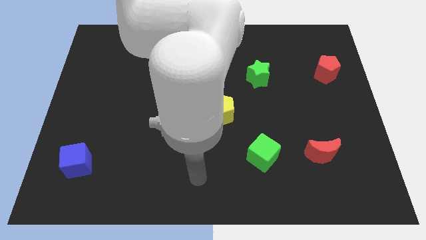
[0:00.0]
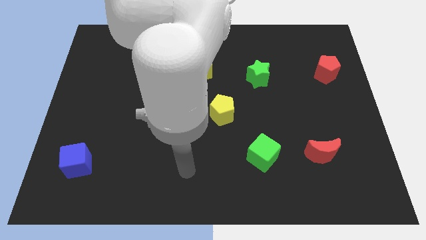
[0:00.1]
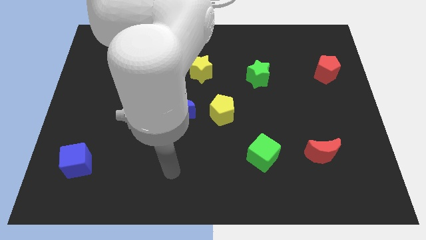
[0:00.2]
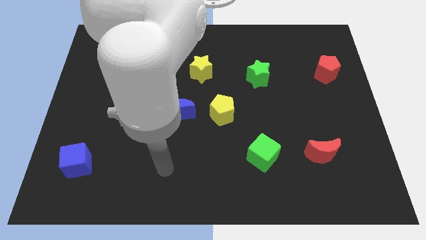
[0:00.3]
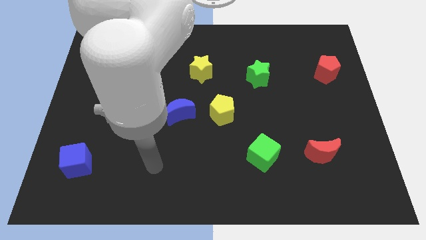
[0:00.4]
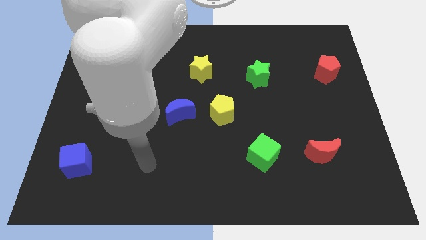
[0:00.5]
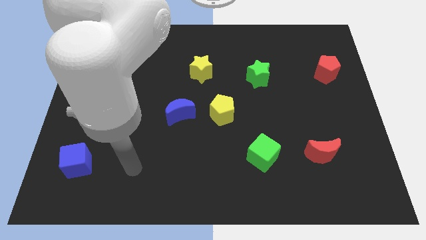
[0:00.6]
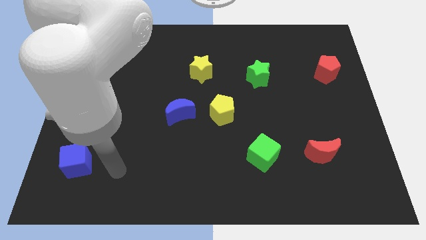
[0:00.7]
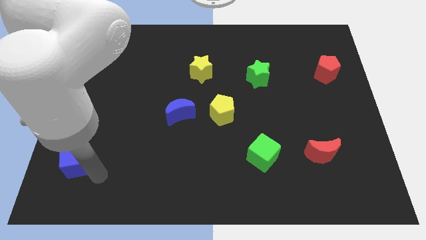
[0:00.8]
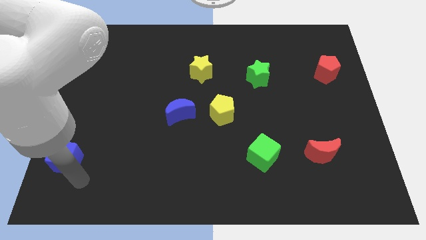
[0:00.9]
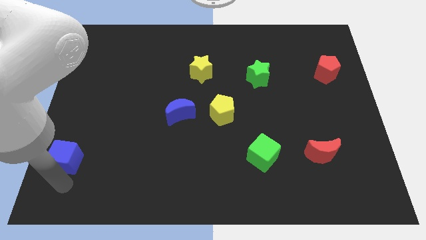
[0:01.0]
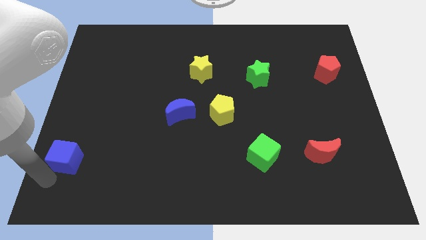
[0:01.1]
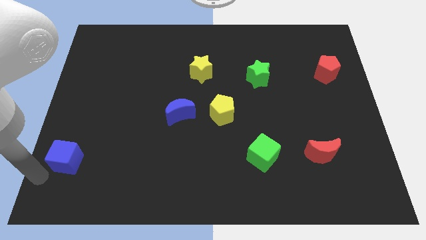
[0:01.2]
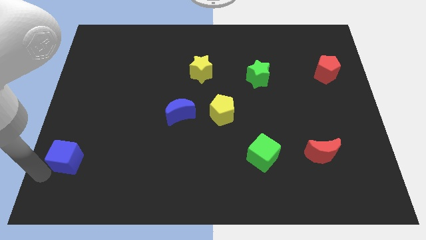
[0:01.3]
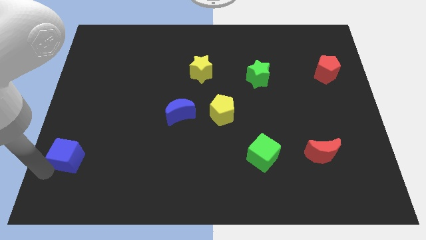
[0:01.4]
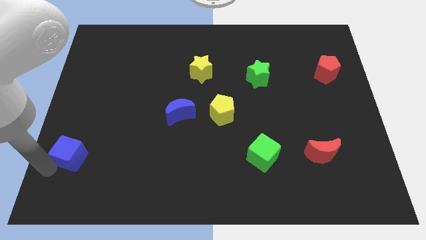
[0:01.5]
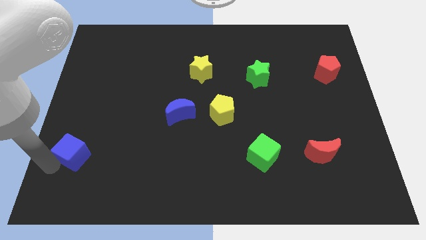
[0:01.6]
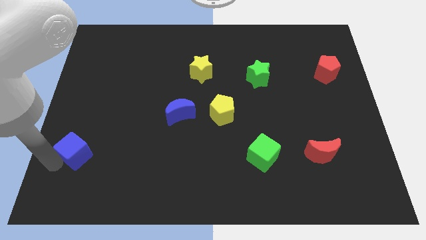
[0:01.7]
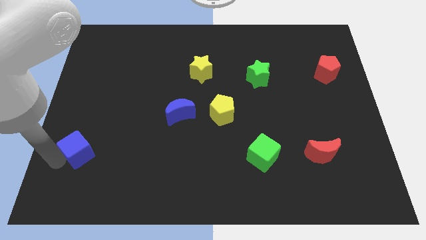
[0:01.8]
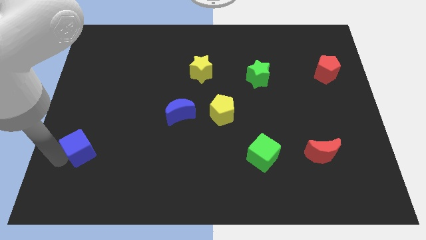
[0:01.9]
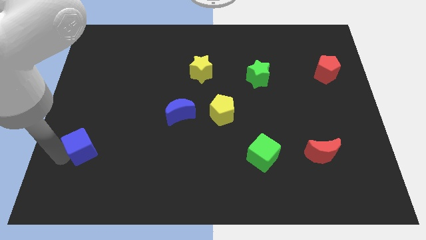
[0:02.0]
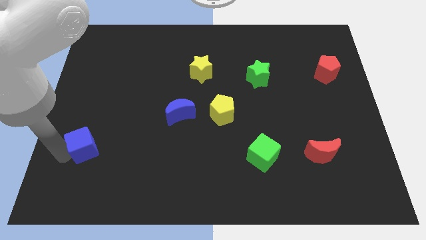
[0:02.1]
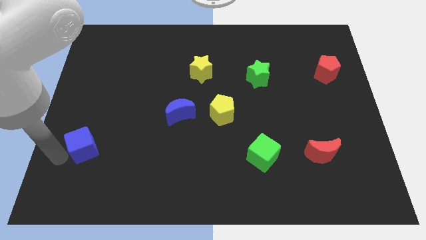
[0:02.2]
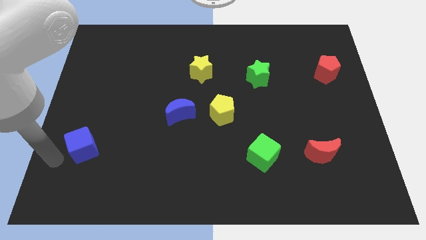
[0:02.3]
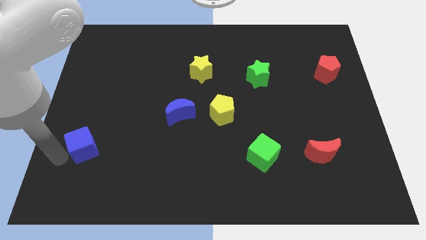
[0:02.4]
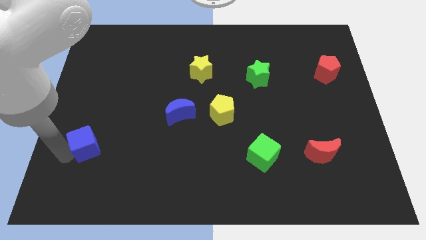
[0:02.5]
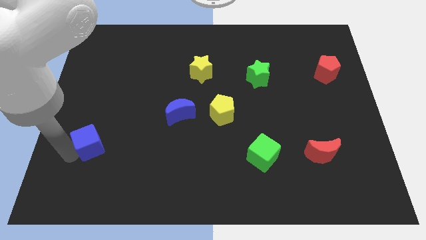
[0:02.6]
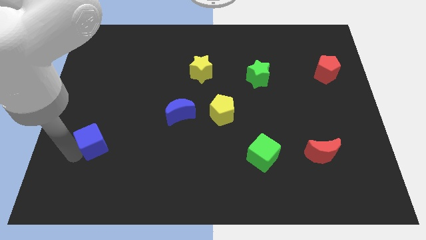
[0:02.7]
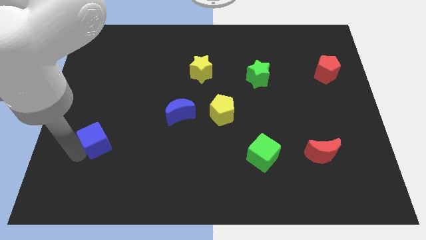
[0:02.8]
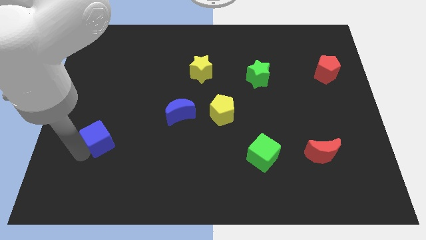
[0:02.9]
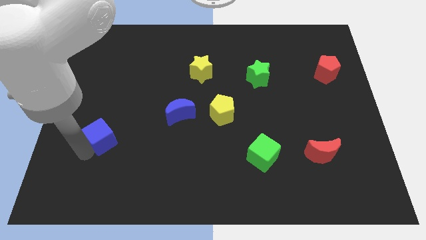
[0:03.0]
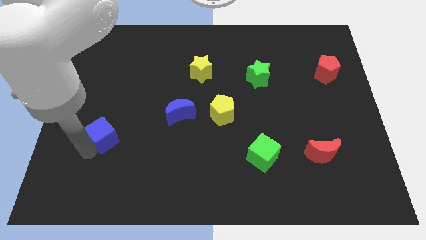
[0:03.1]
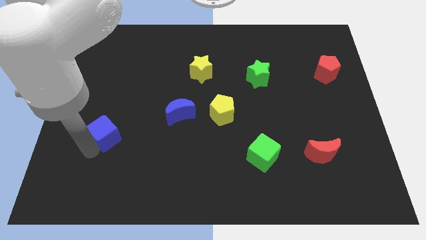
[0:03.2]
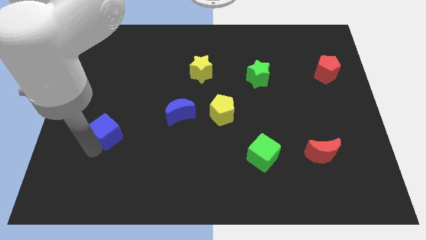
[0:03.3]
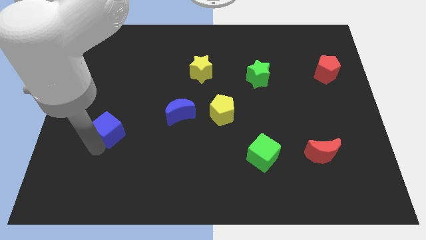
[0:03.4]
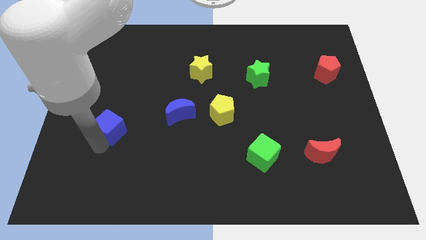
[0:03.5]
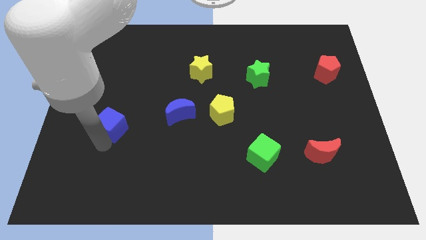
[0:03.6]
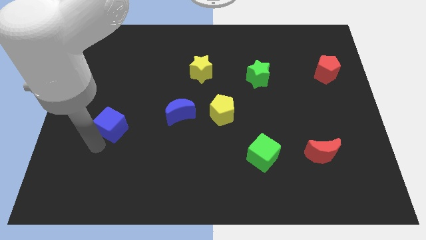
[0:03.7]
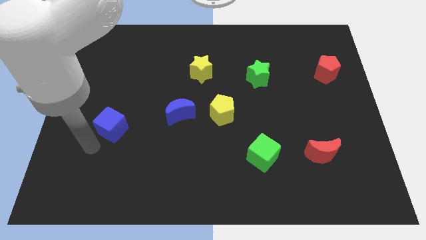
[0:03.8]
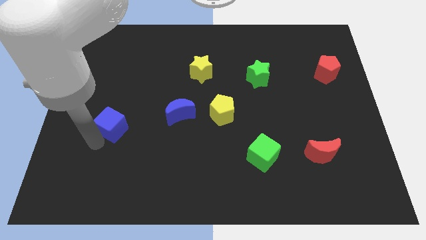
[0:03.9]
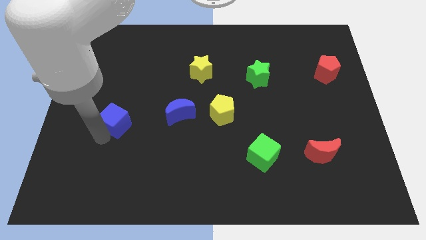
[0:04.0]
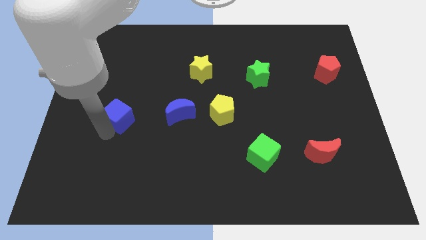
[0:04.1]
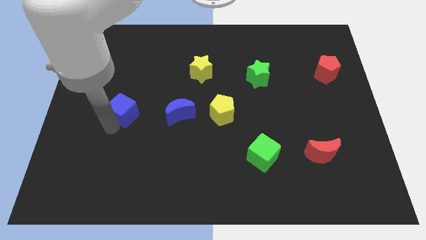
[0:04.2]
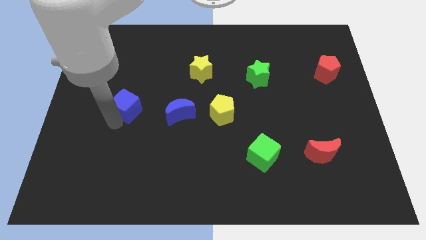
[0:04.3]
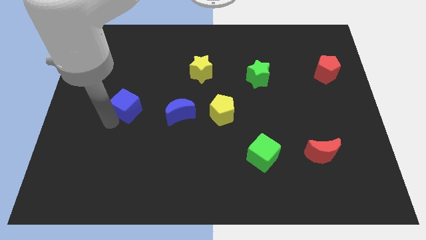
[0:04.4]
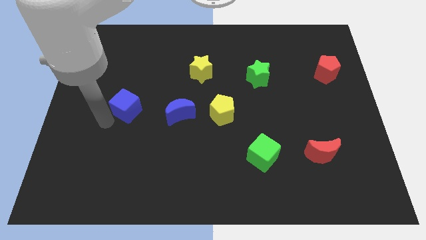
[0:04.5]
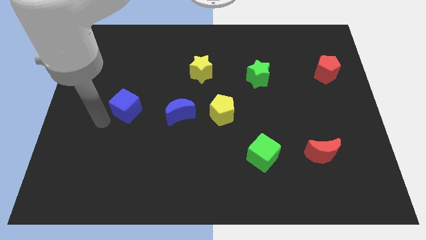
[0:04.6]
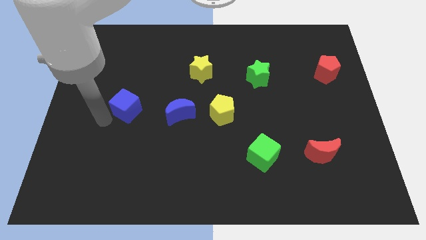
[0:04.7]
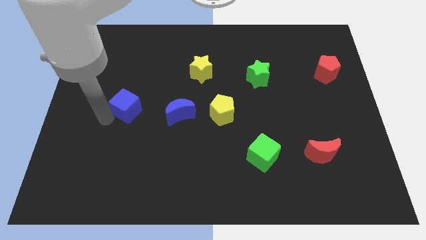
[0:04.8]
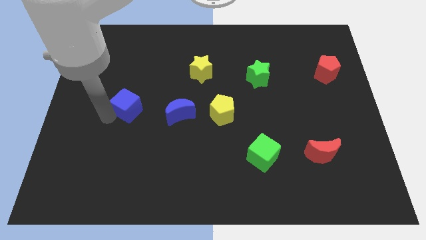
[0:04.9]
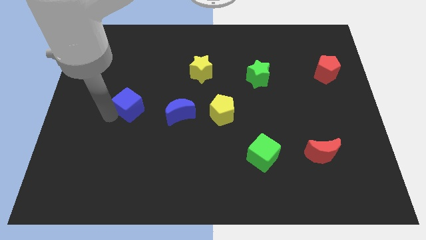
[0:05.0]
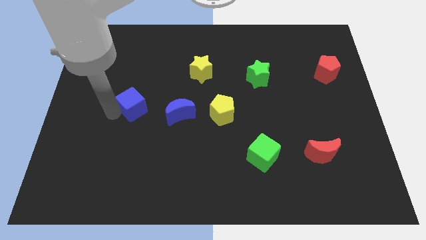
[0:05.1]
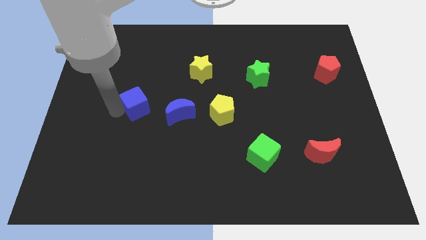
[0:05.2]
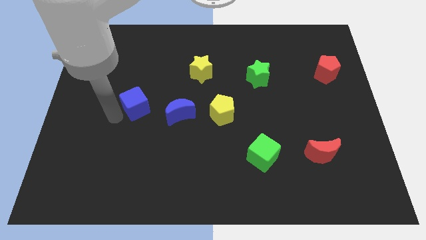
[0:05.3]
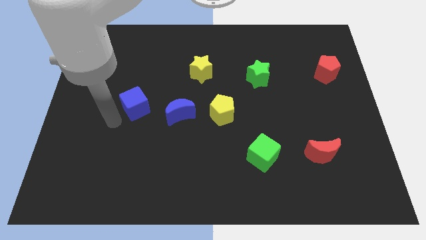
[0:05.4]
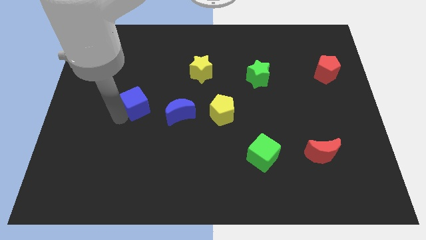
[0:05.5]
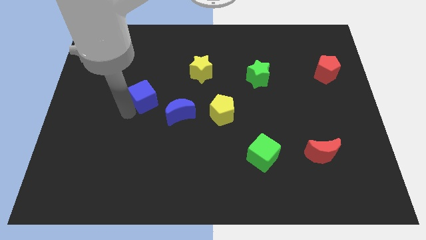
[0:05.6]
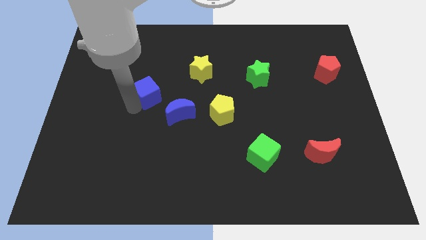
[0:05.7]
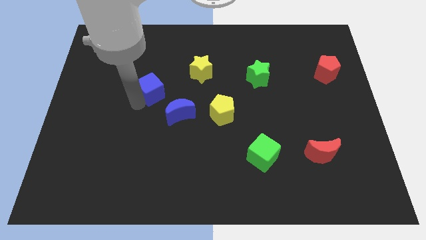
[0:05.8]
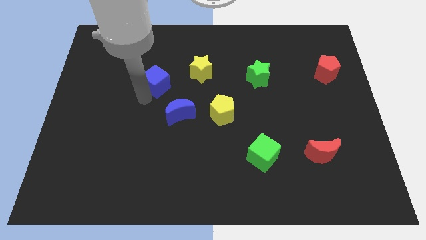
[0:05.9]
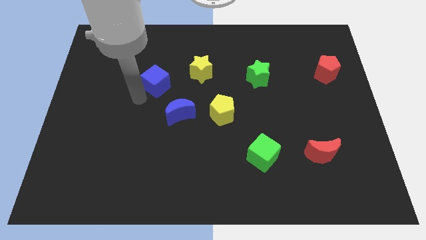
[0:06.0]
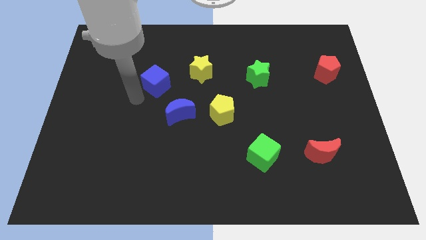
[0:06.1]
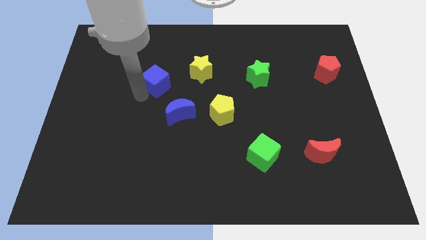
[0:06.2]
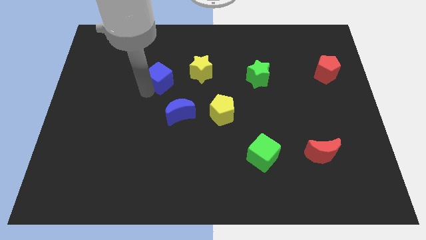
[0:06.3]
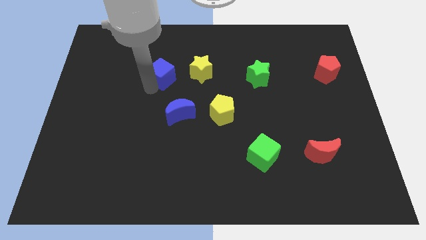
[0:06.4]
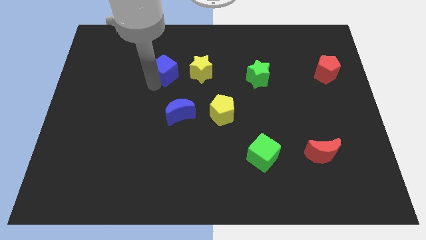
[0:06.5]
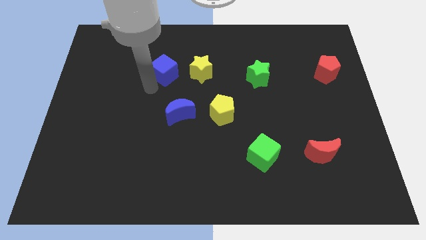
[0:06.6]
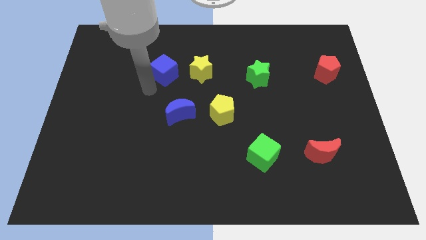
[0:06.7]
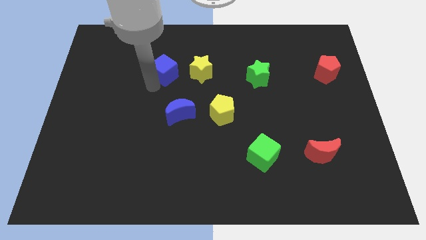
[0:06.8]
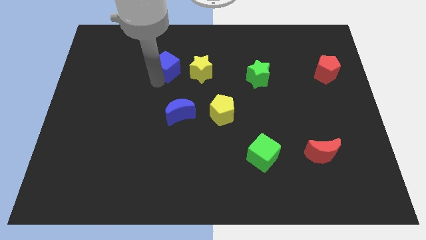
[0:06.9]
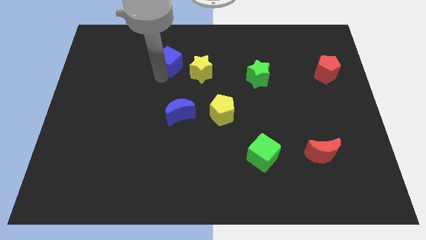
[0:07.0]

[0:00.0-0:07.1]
push the blue cube to the top left side of the yellow star

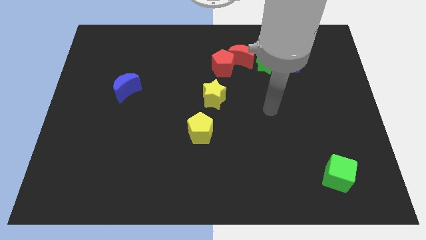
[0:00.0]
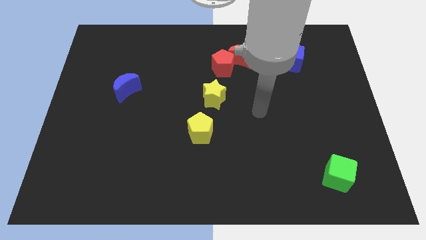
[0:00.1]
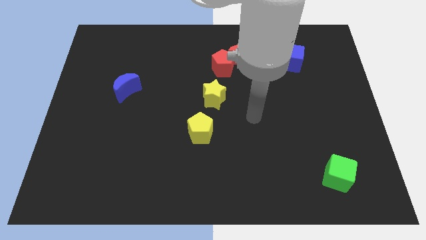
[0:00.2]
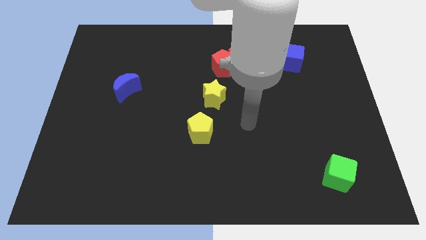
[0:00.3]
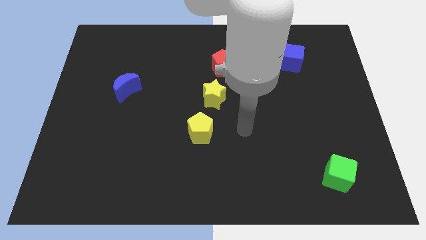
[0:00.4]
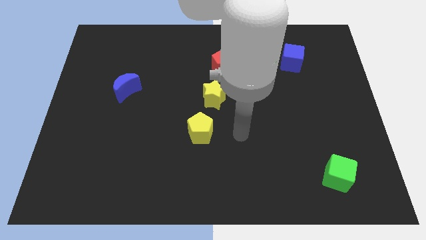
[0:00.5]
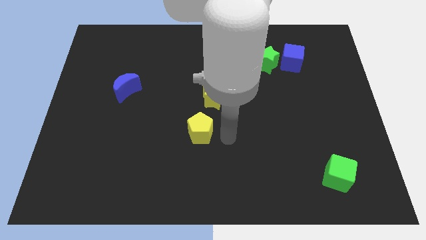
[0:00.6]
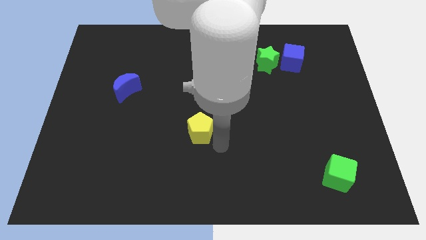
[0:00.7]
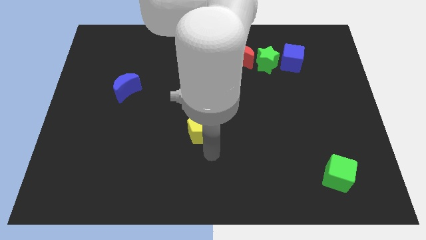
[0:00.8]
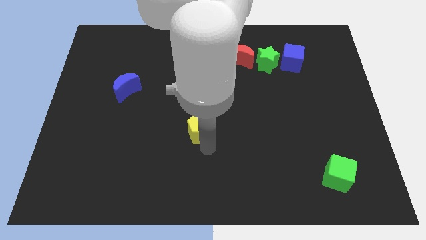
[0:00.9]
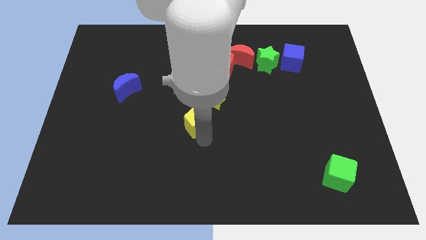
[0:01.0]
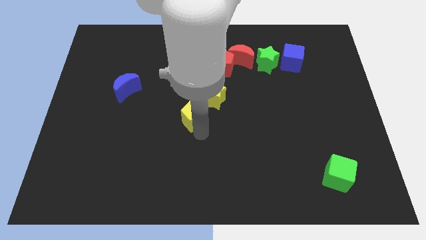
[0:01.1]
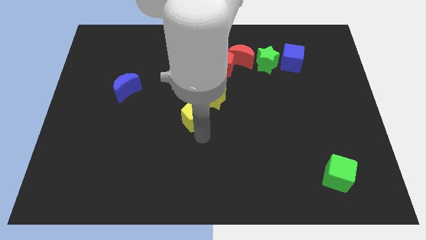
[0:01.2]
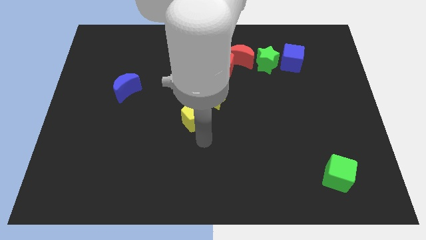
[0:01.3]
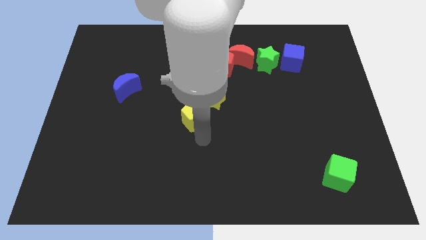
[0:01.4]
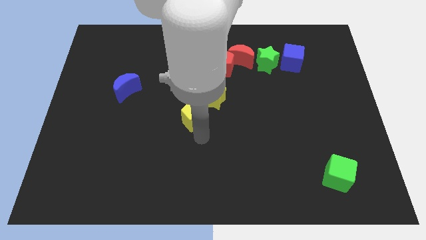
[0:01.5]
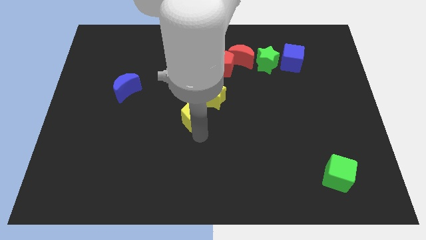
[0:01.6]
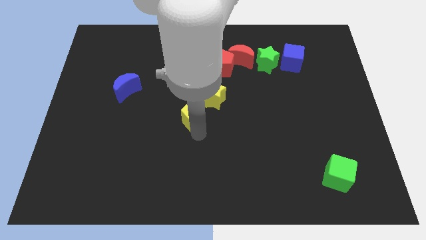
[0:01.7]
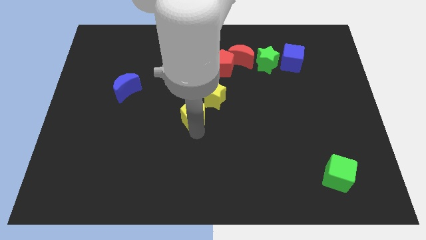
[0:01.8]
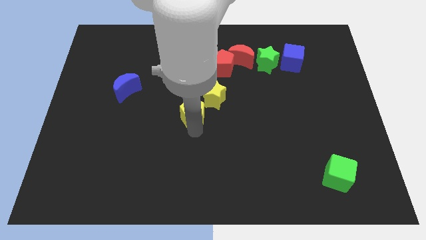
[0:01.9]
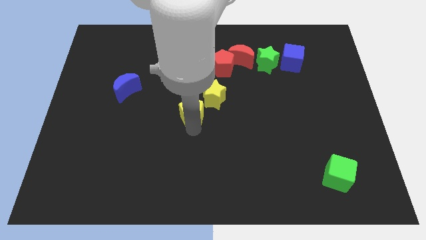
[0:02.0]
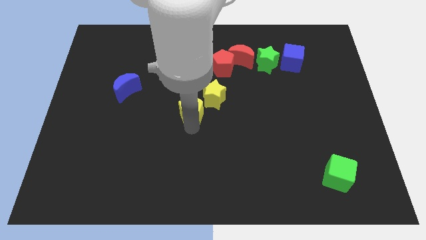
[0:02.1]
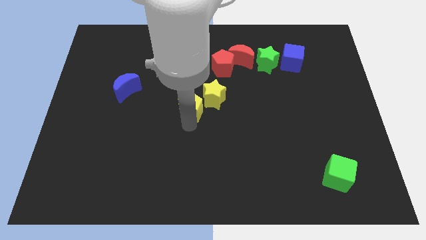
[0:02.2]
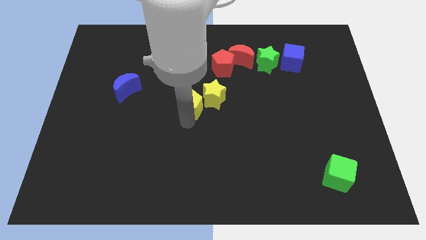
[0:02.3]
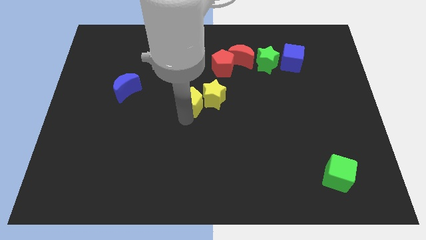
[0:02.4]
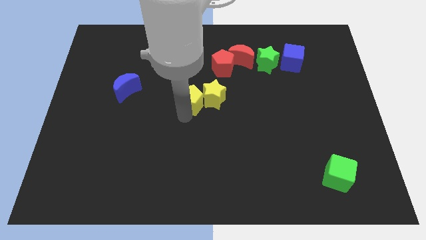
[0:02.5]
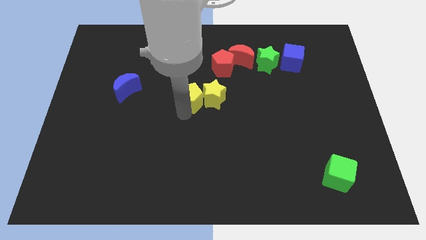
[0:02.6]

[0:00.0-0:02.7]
push the yellow pentagon diagonally up and to the left of the yellow star
